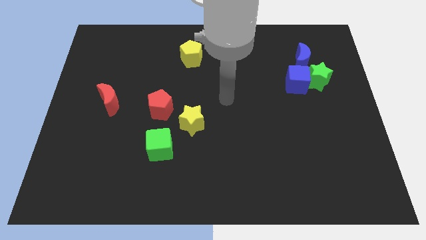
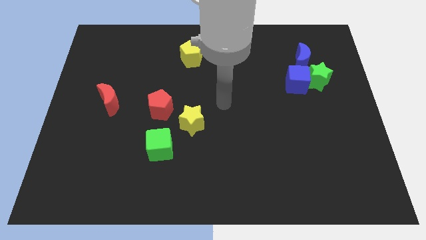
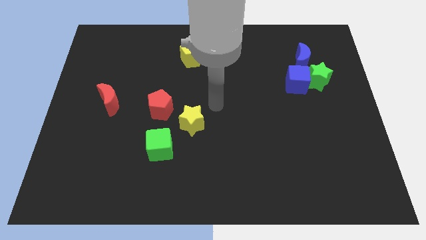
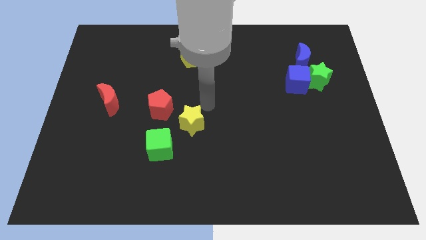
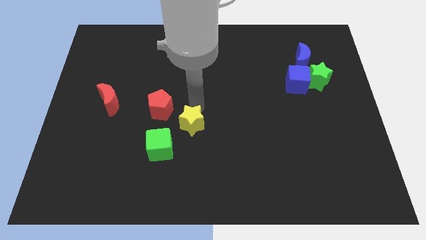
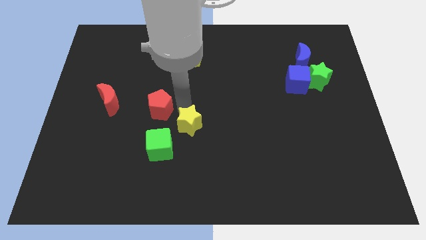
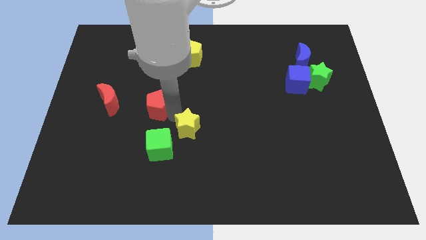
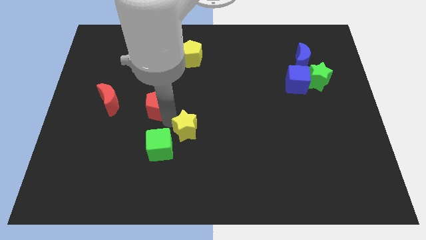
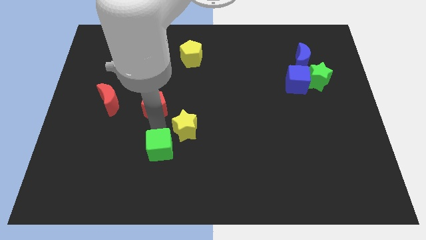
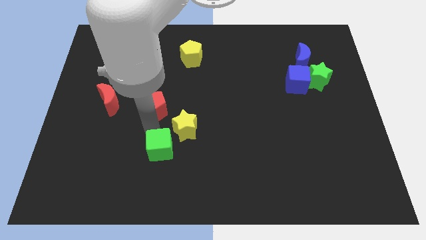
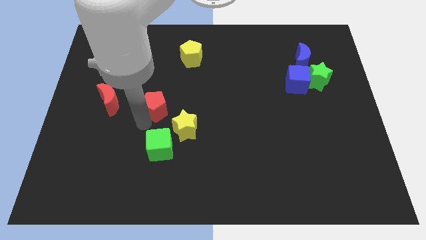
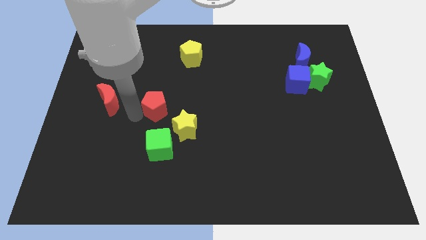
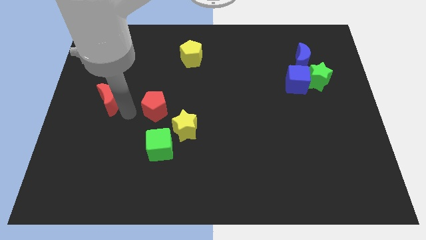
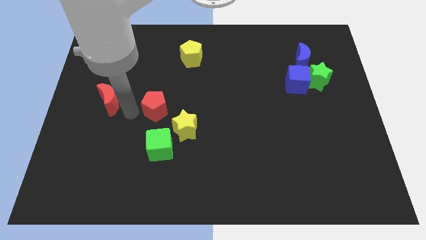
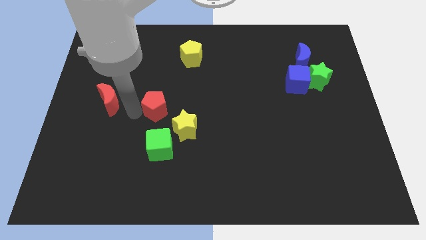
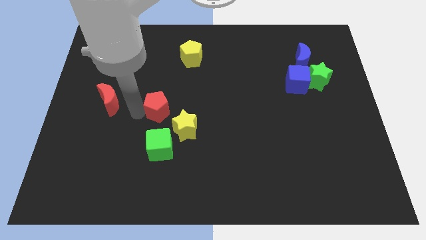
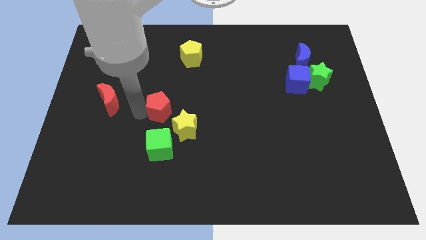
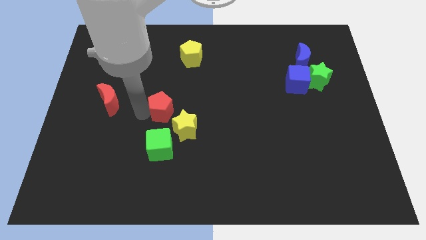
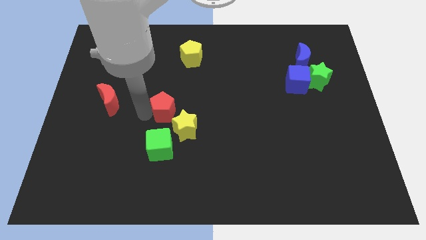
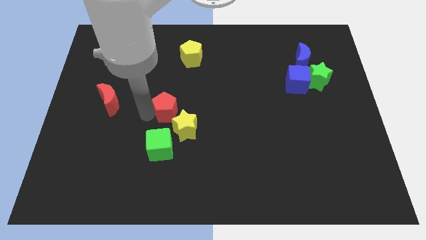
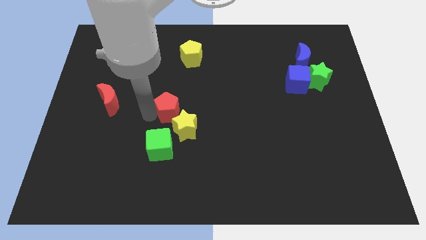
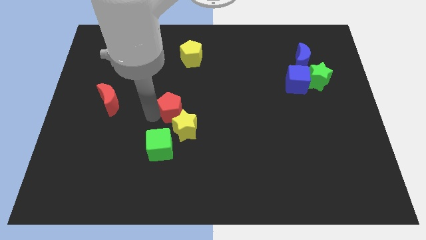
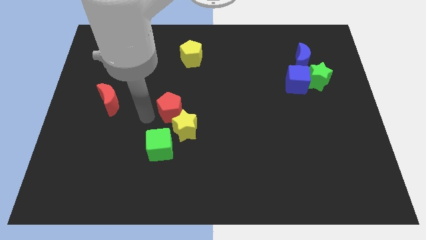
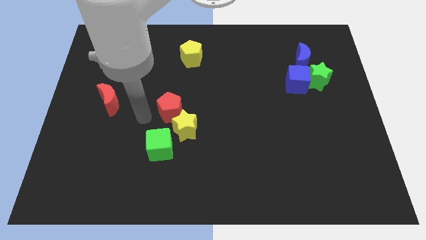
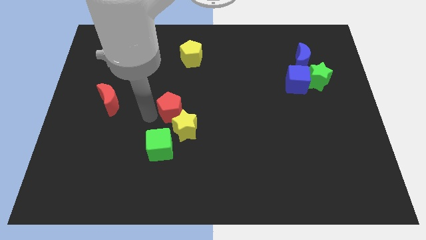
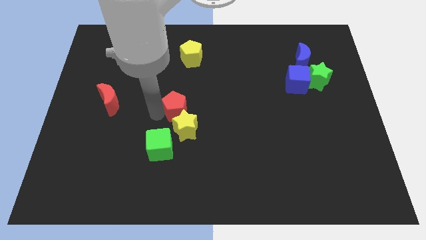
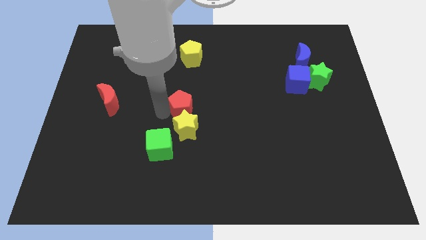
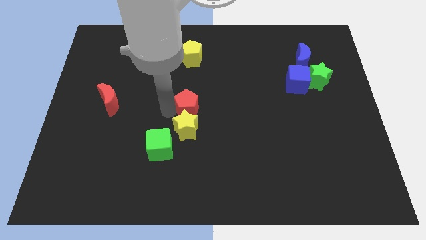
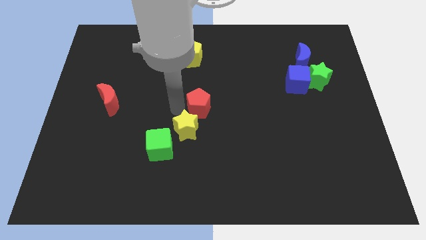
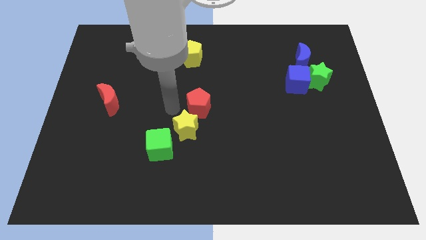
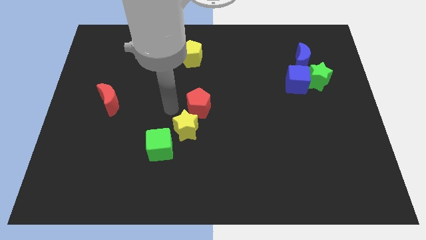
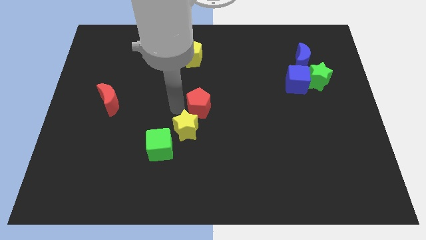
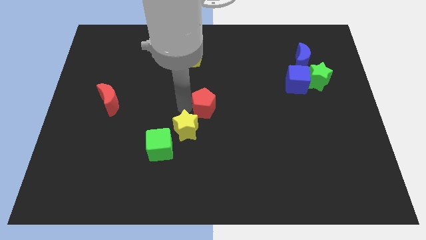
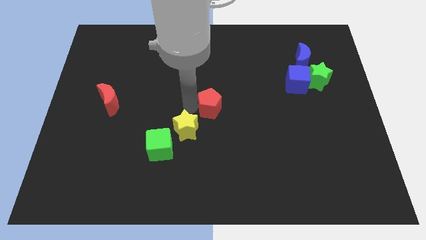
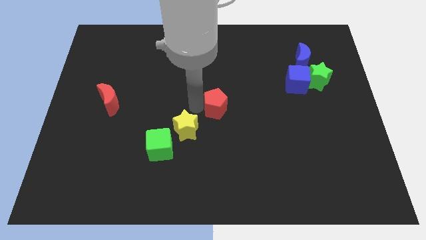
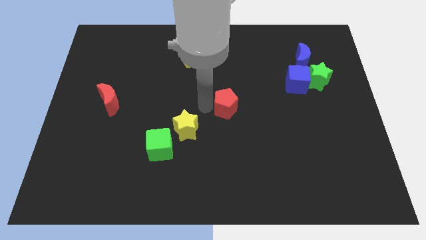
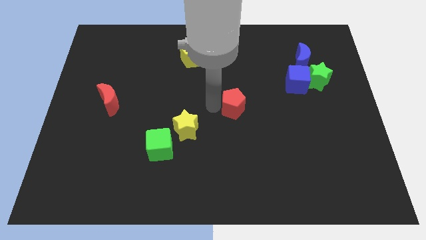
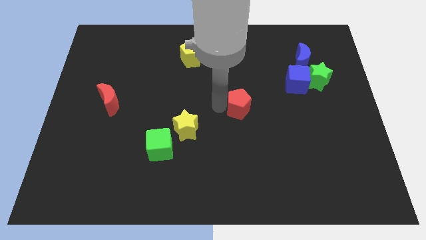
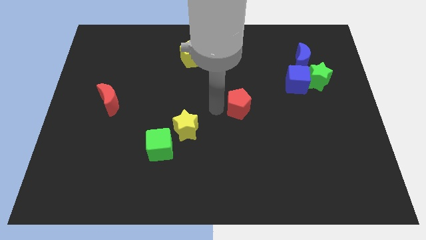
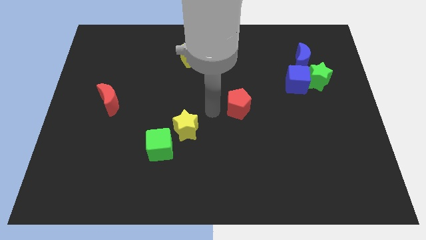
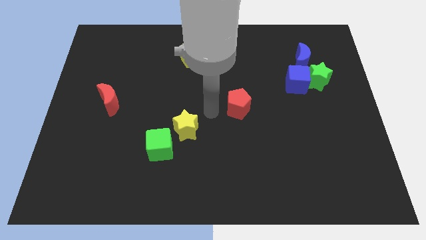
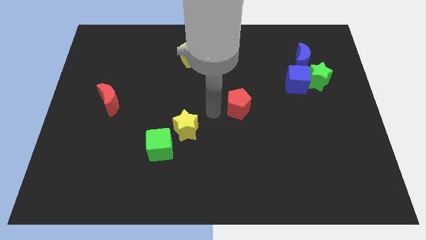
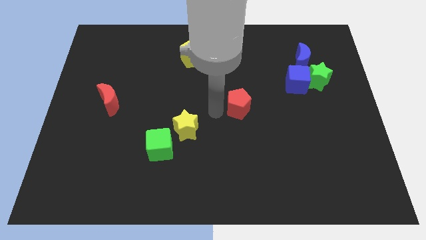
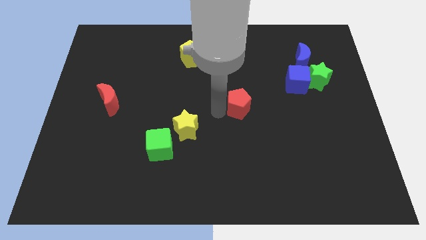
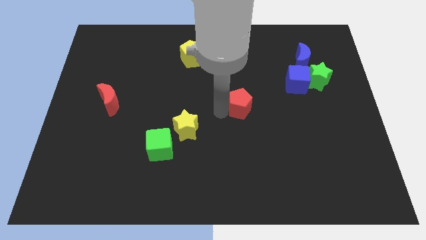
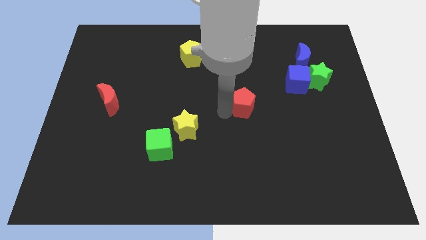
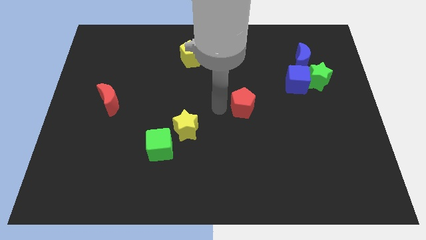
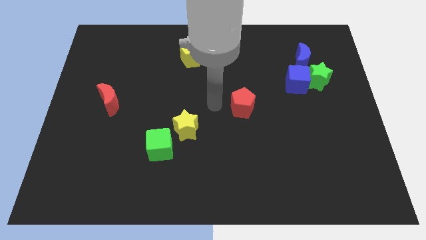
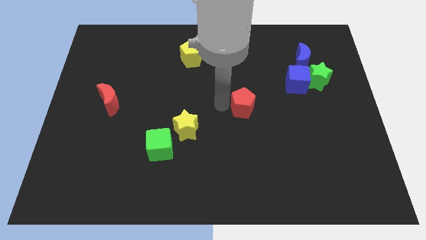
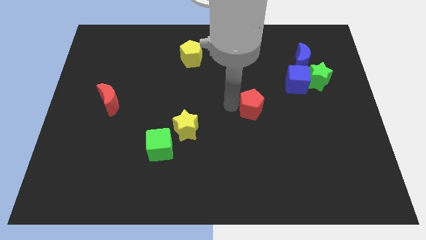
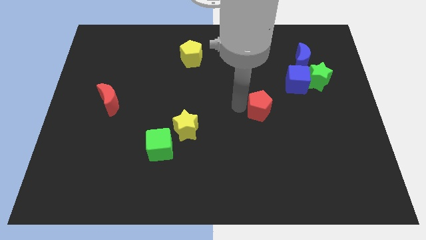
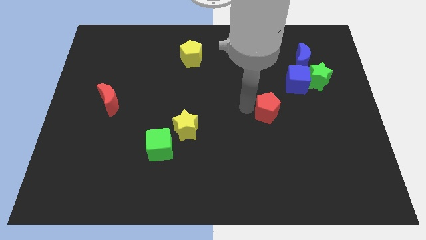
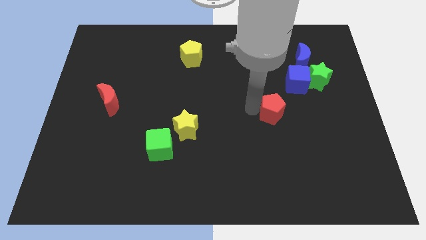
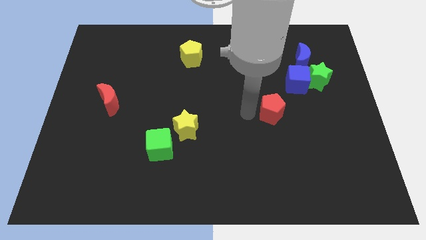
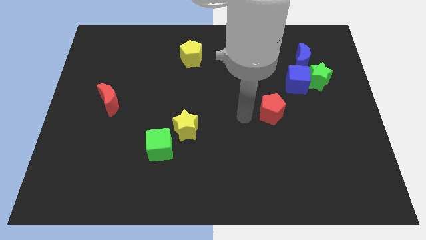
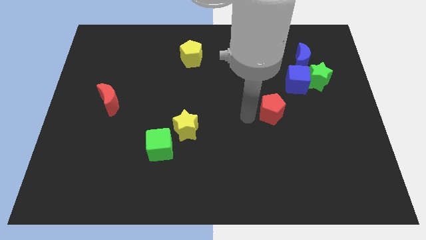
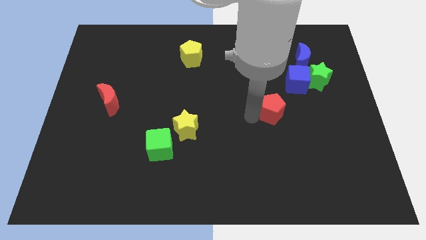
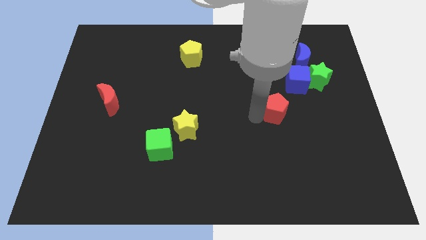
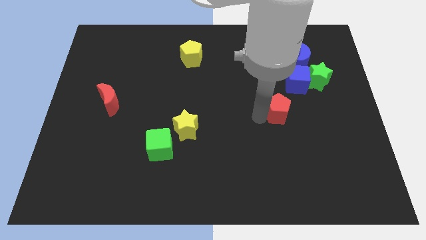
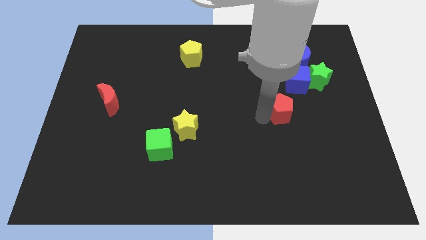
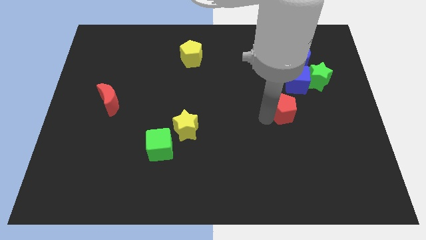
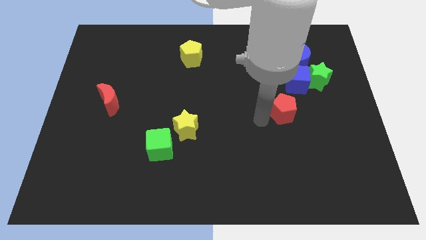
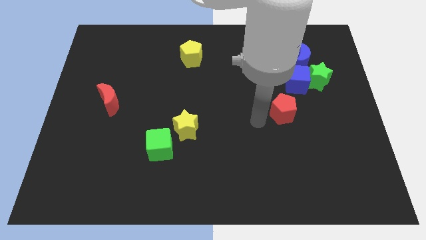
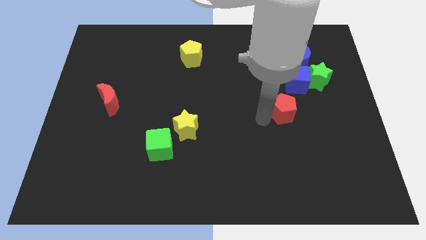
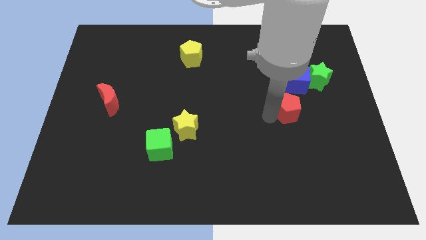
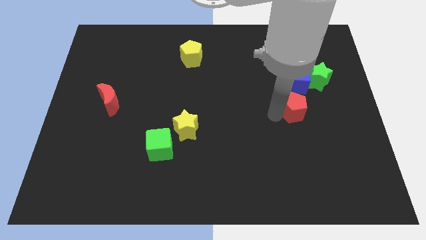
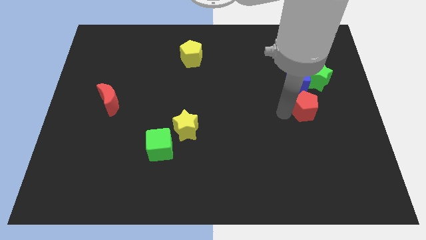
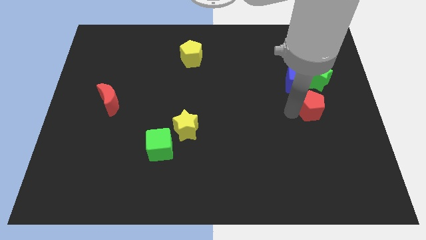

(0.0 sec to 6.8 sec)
slide the red pentagon diagonally down and to the right of the blue cube

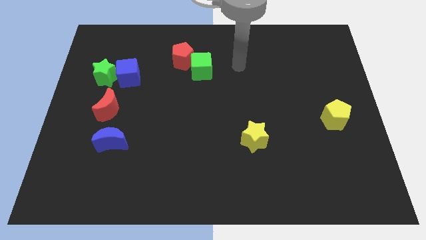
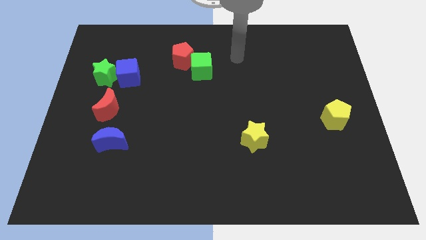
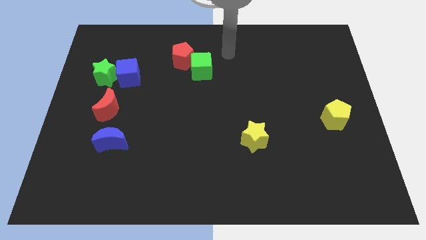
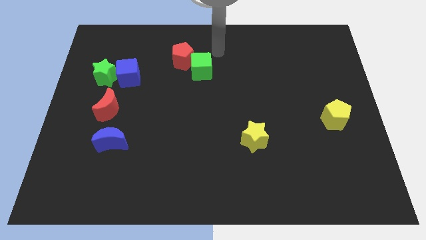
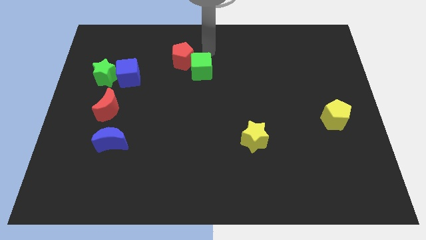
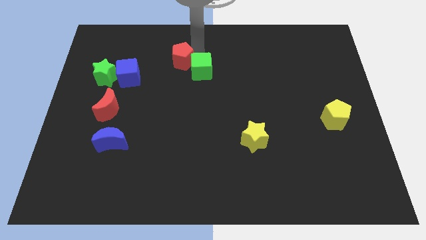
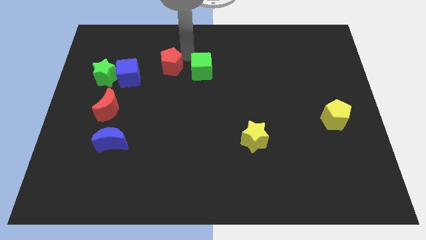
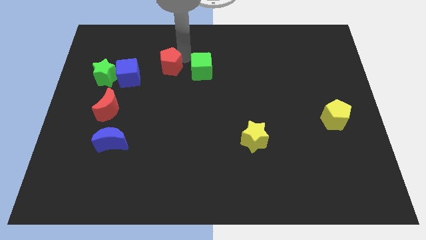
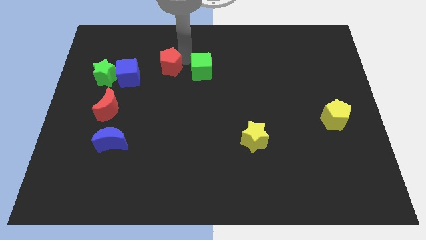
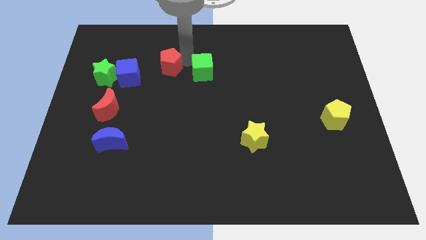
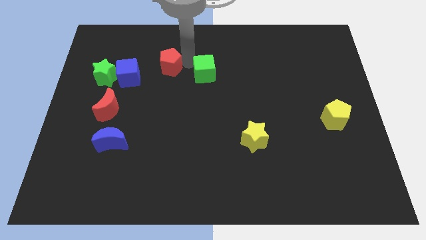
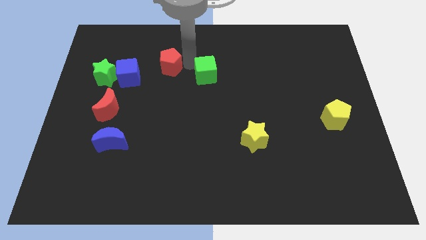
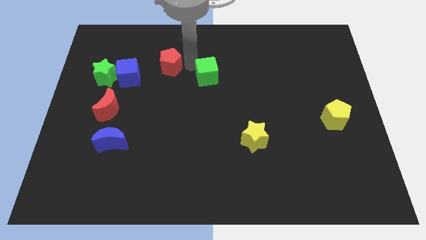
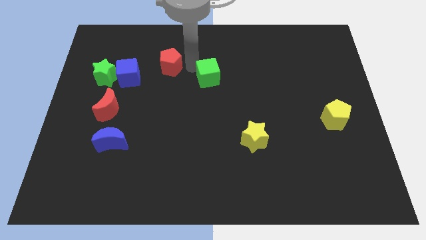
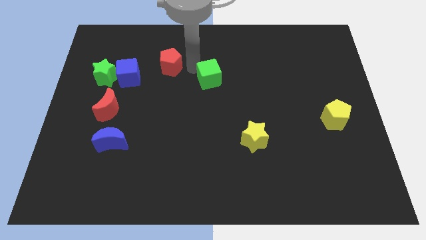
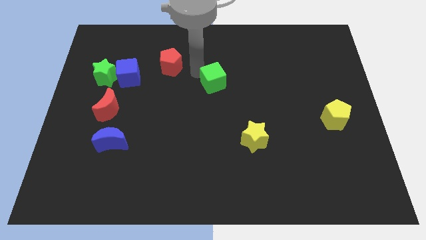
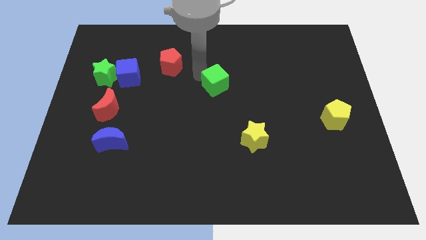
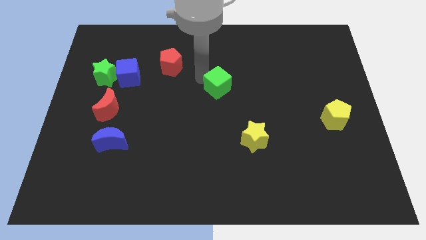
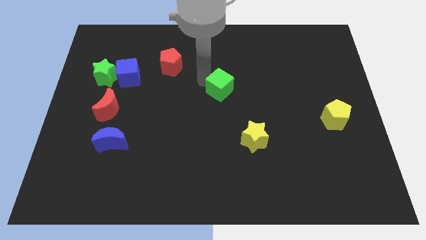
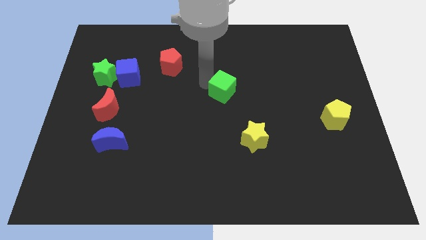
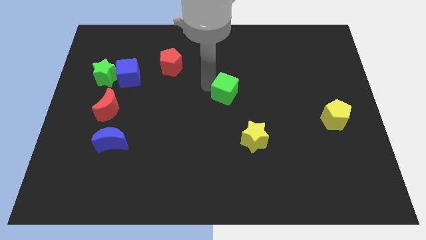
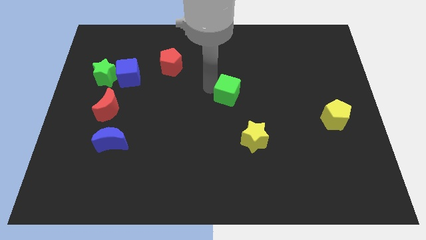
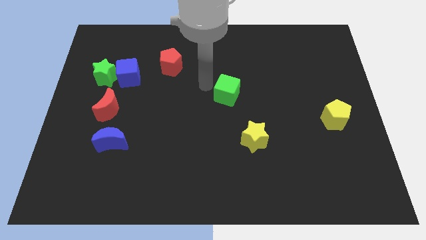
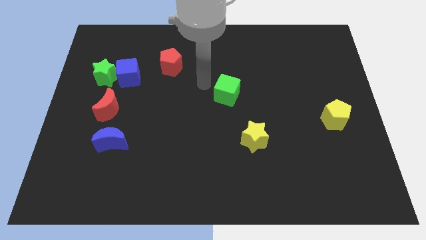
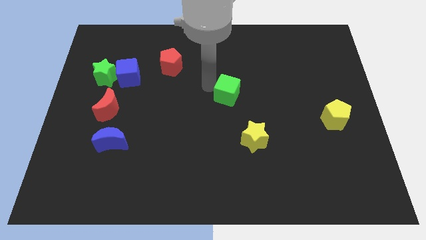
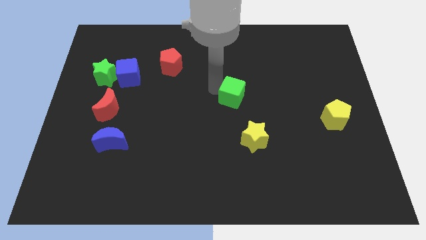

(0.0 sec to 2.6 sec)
put the green cube above the yellow star
